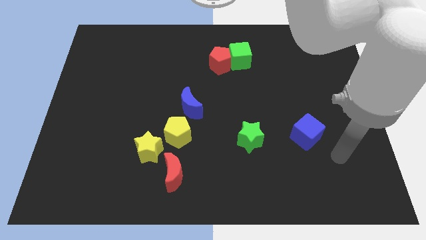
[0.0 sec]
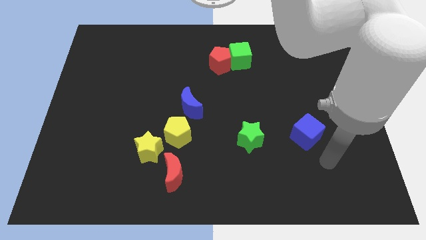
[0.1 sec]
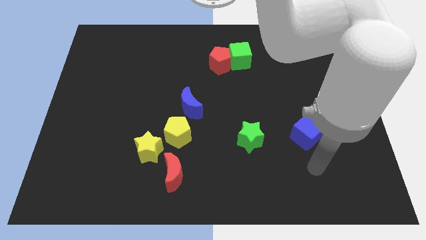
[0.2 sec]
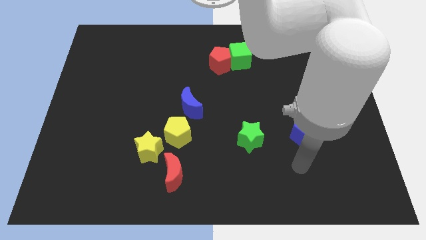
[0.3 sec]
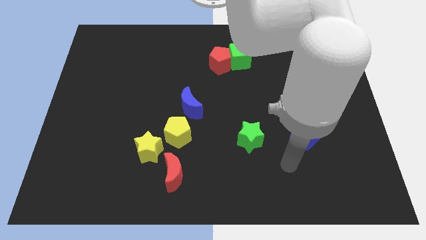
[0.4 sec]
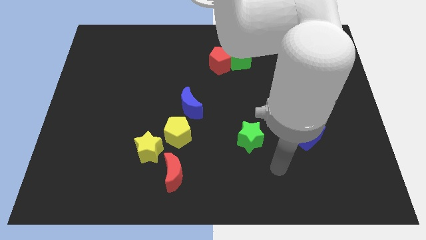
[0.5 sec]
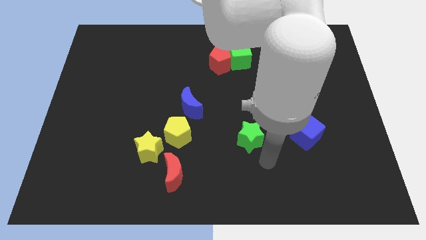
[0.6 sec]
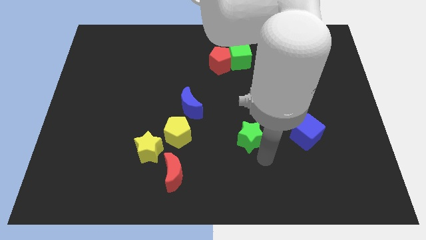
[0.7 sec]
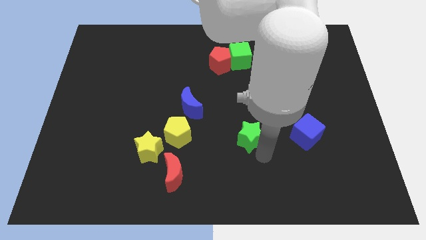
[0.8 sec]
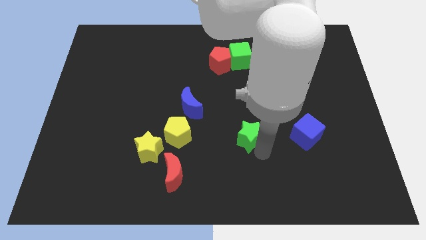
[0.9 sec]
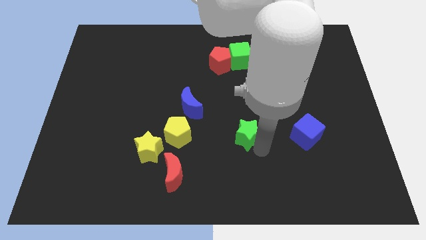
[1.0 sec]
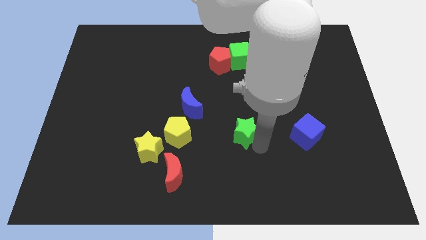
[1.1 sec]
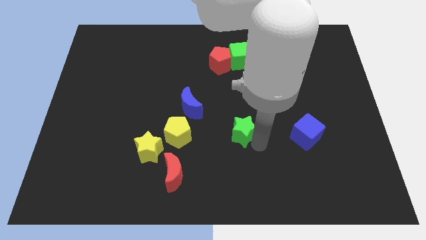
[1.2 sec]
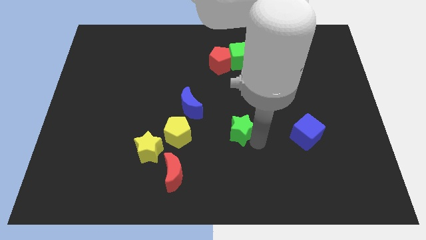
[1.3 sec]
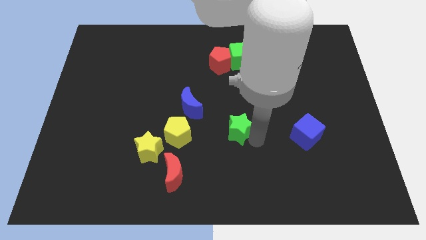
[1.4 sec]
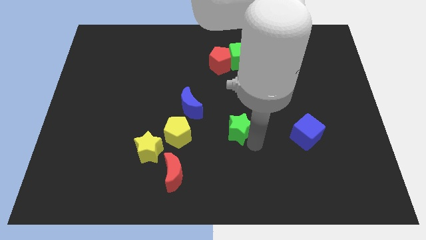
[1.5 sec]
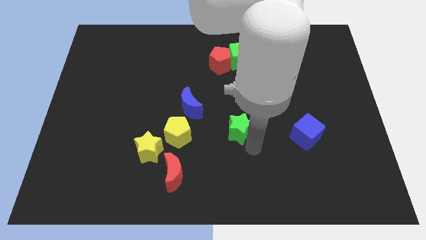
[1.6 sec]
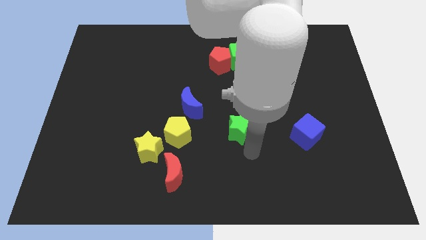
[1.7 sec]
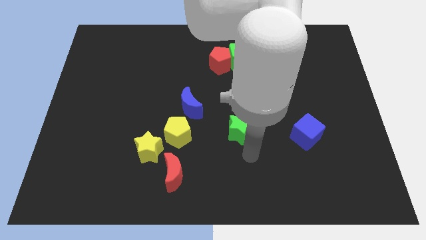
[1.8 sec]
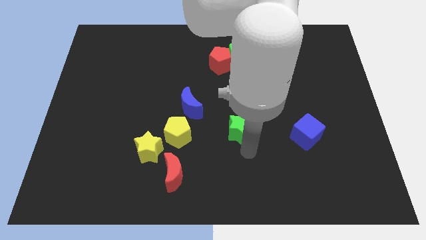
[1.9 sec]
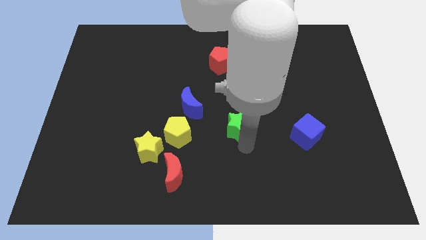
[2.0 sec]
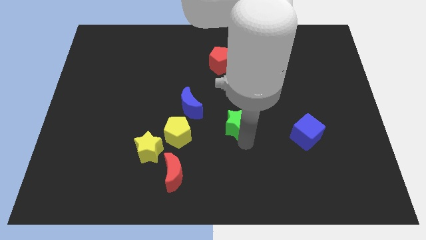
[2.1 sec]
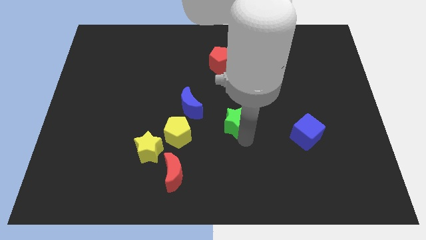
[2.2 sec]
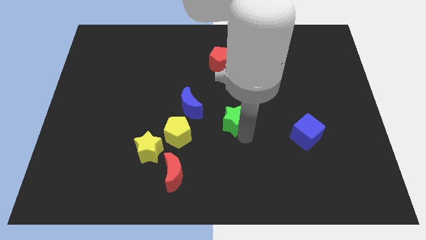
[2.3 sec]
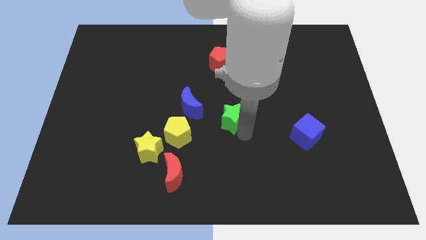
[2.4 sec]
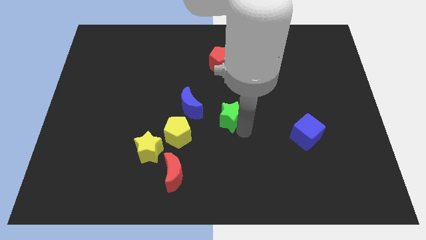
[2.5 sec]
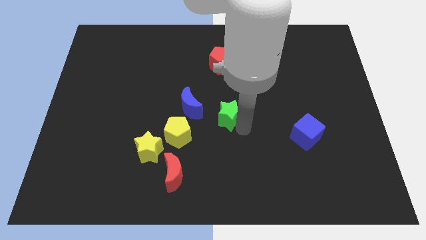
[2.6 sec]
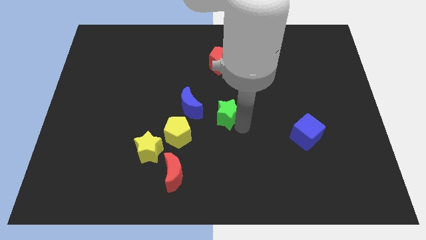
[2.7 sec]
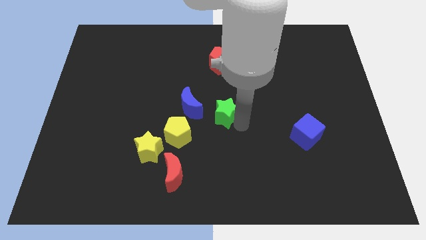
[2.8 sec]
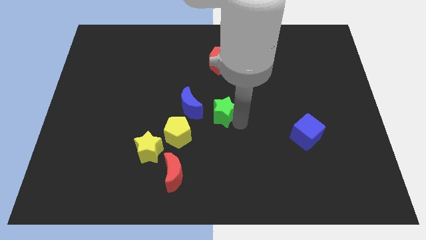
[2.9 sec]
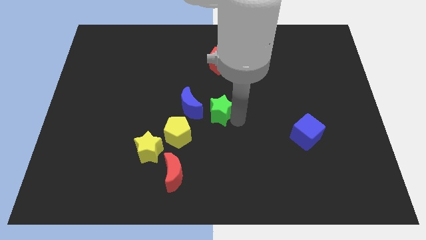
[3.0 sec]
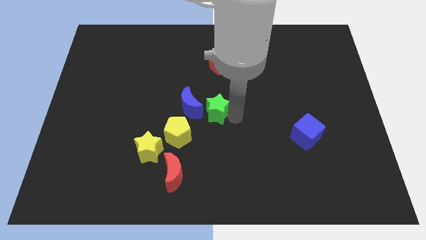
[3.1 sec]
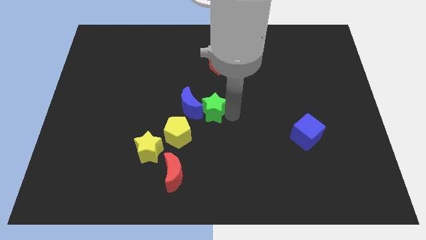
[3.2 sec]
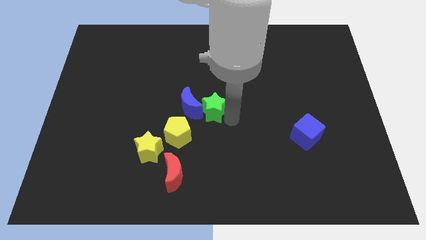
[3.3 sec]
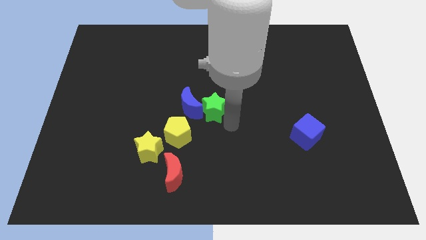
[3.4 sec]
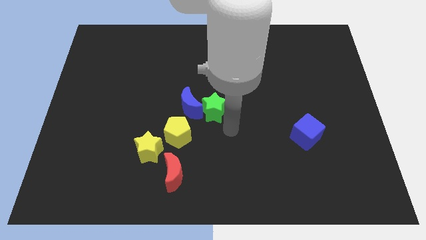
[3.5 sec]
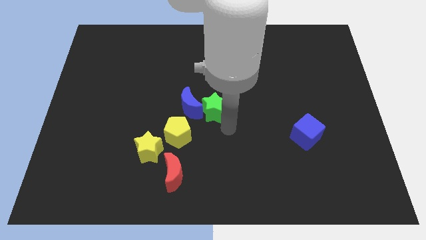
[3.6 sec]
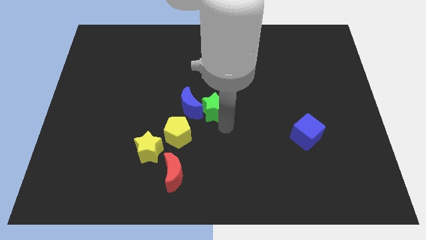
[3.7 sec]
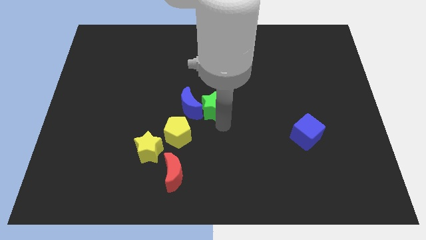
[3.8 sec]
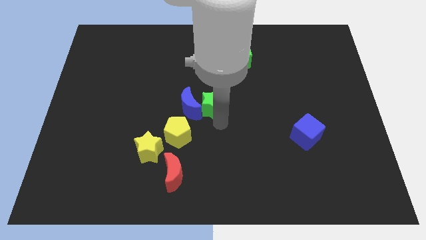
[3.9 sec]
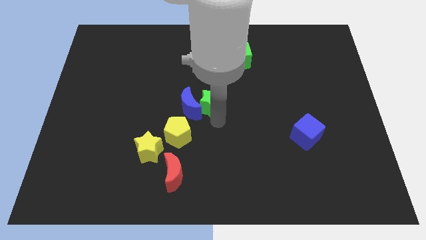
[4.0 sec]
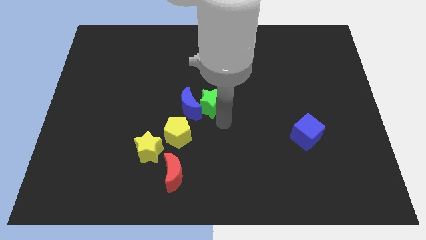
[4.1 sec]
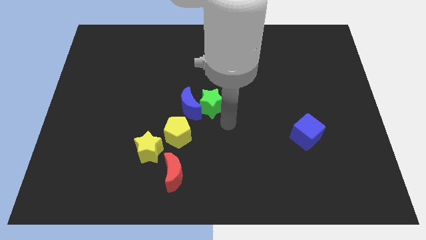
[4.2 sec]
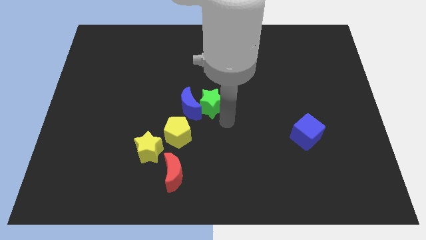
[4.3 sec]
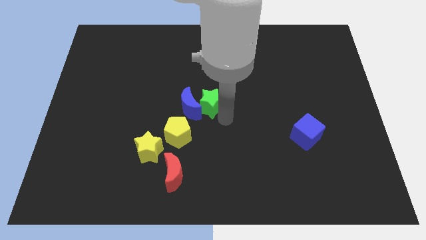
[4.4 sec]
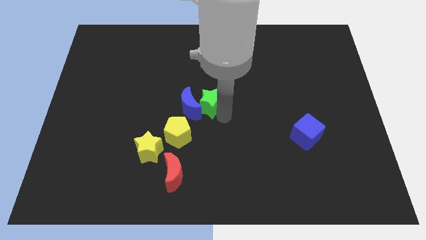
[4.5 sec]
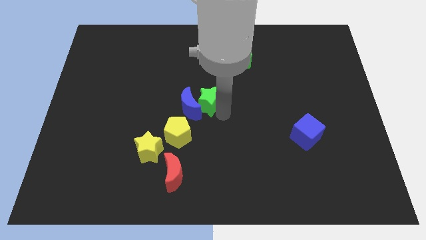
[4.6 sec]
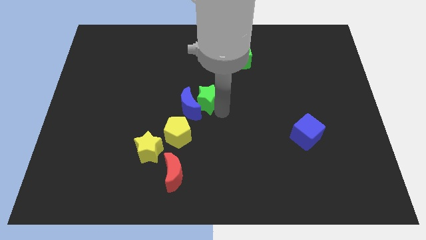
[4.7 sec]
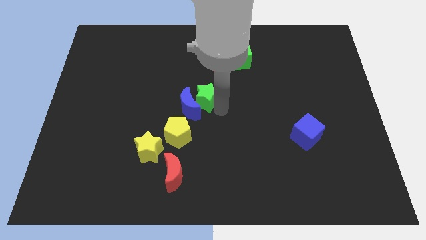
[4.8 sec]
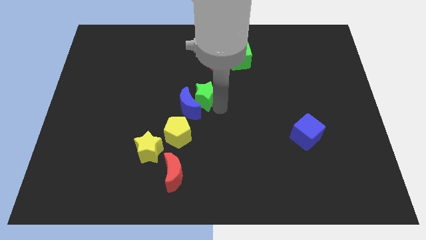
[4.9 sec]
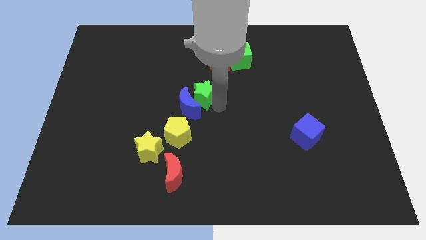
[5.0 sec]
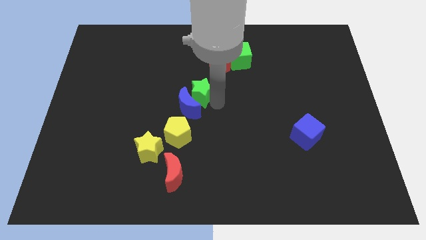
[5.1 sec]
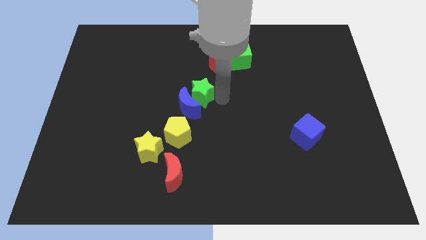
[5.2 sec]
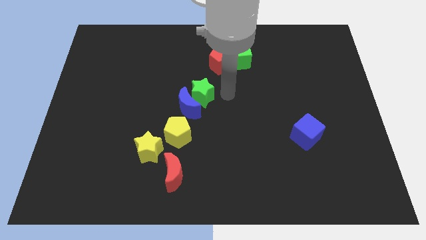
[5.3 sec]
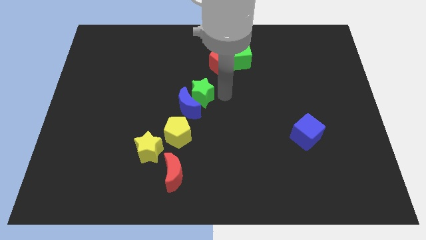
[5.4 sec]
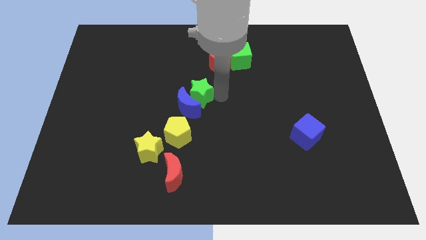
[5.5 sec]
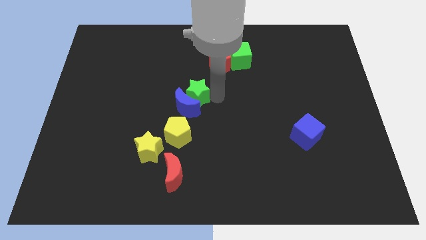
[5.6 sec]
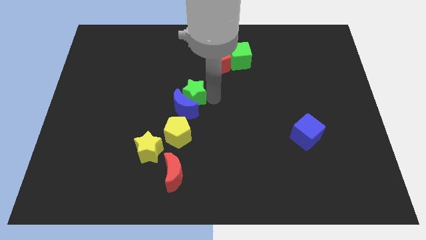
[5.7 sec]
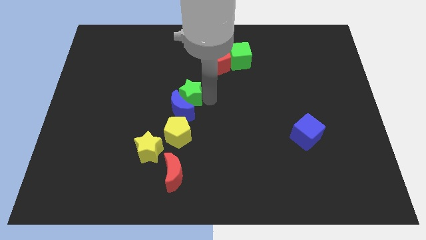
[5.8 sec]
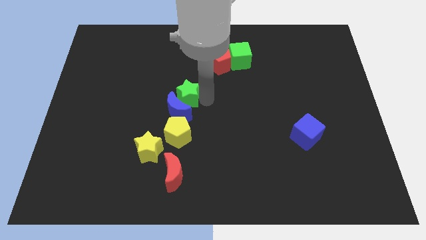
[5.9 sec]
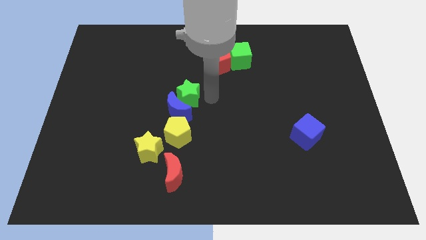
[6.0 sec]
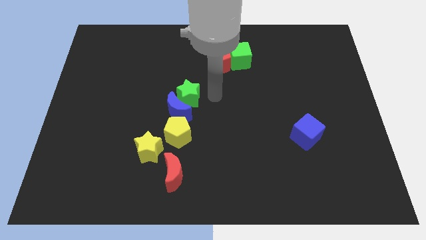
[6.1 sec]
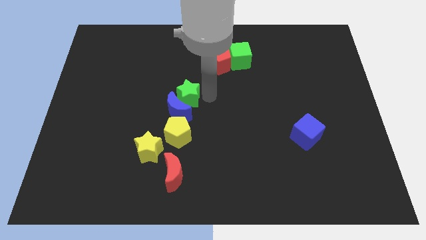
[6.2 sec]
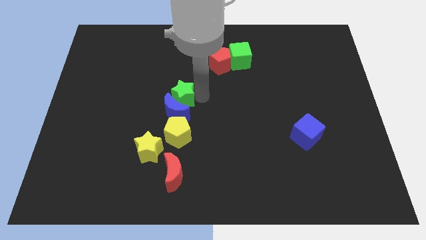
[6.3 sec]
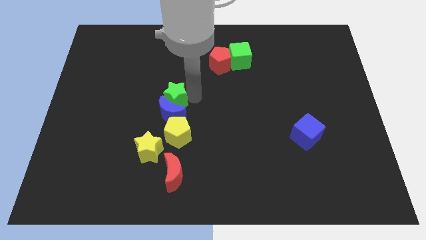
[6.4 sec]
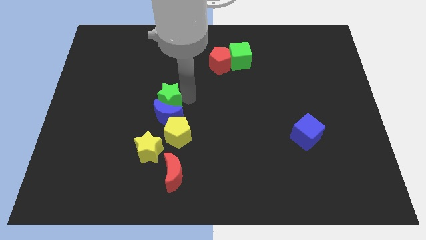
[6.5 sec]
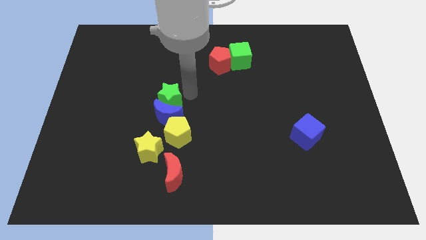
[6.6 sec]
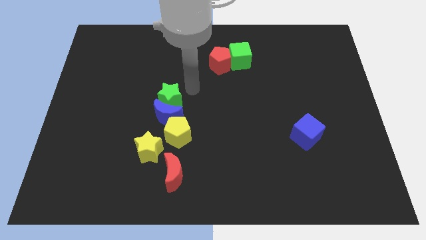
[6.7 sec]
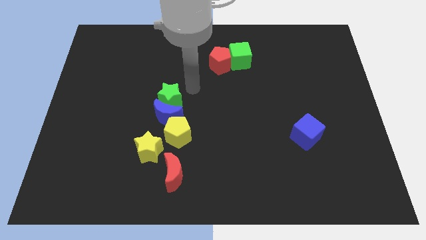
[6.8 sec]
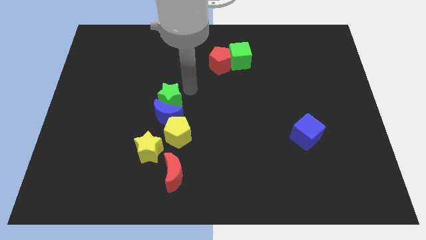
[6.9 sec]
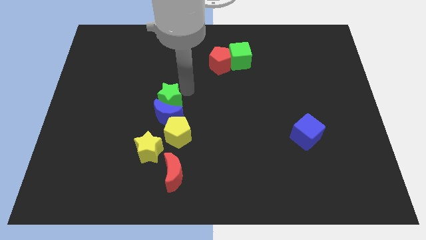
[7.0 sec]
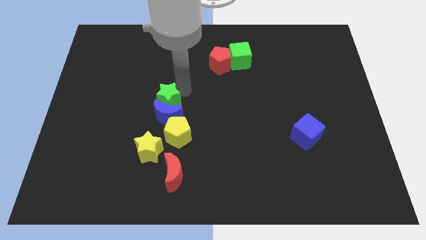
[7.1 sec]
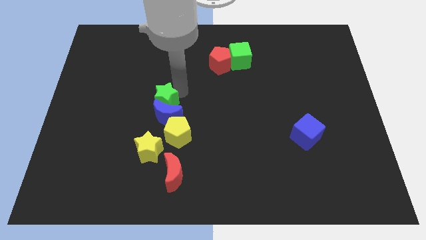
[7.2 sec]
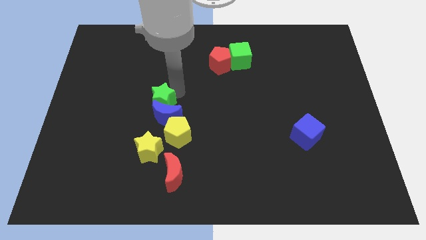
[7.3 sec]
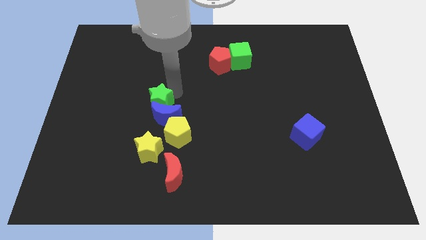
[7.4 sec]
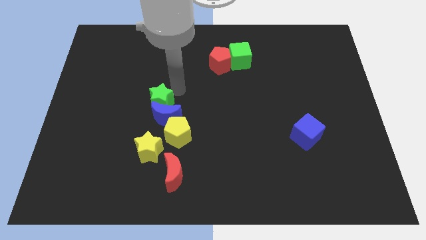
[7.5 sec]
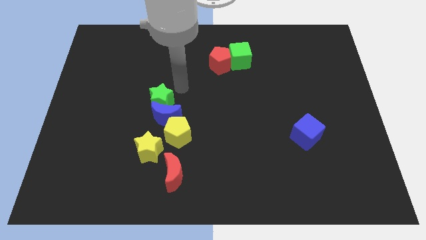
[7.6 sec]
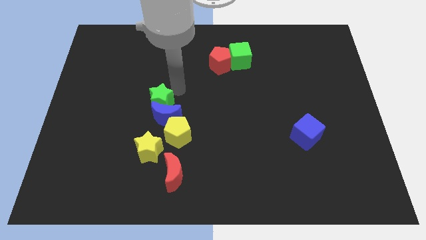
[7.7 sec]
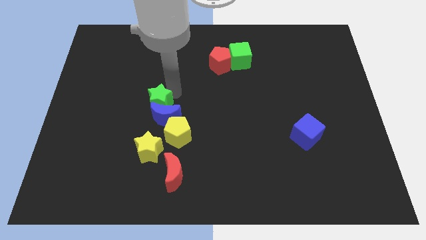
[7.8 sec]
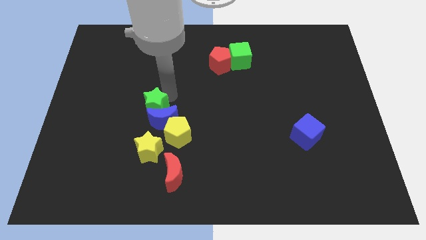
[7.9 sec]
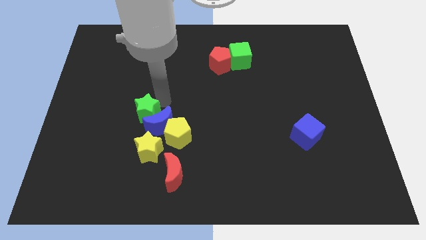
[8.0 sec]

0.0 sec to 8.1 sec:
push the green star to the left

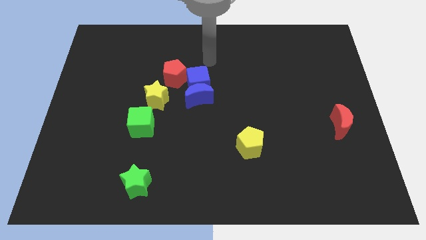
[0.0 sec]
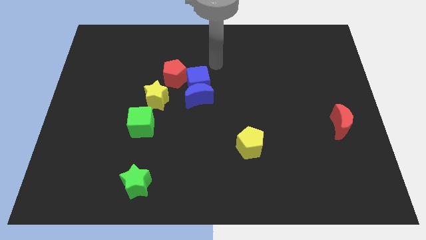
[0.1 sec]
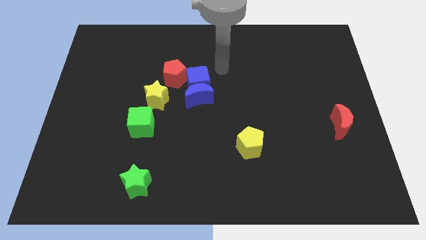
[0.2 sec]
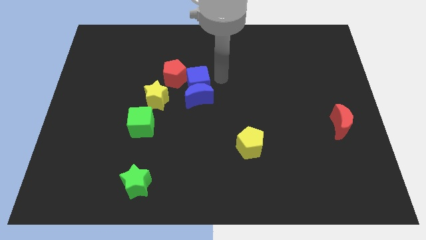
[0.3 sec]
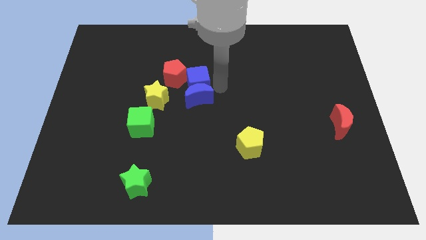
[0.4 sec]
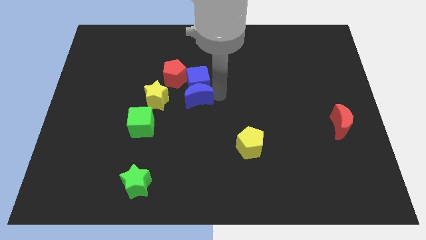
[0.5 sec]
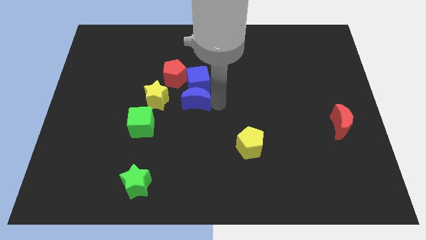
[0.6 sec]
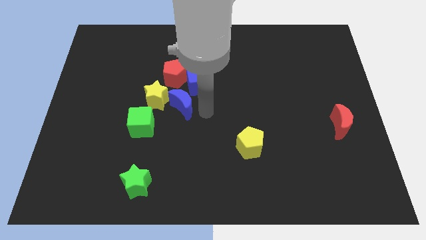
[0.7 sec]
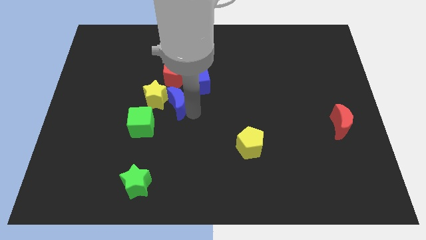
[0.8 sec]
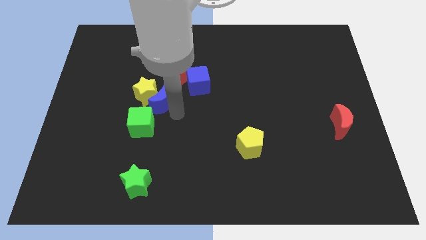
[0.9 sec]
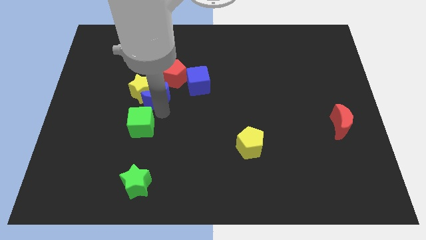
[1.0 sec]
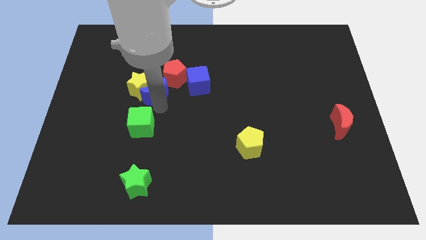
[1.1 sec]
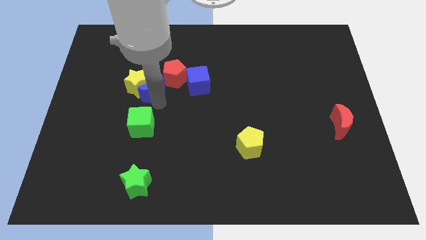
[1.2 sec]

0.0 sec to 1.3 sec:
slightly slide the yellow star diagonally upwards and left
